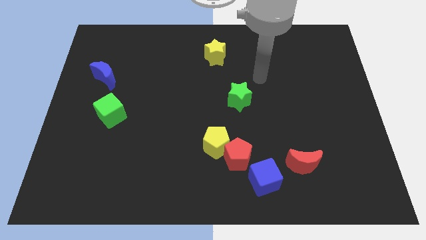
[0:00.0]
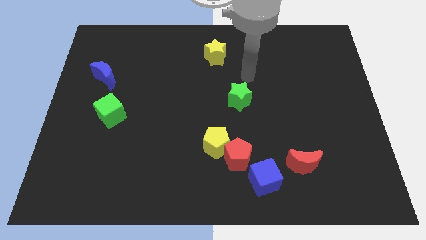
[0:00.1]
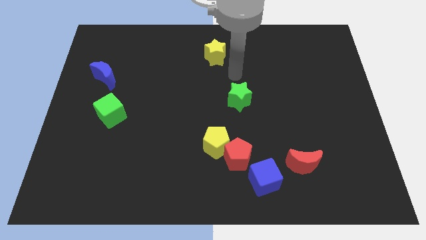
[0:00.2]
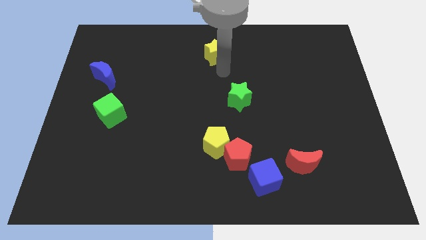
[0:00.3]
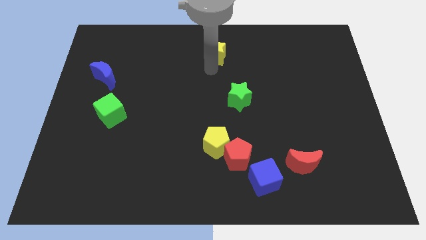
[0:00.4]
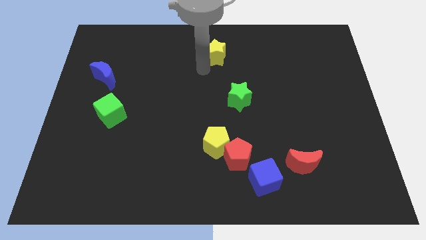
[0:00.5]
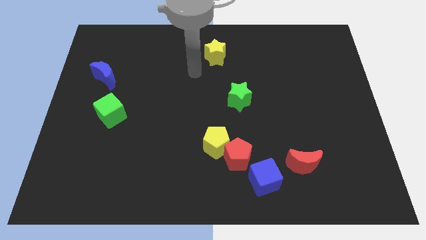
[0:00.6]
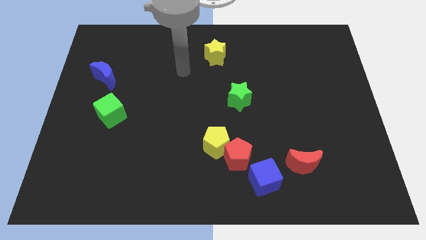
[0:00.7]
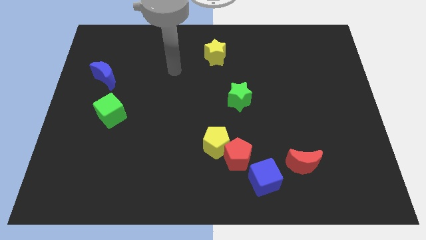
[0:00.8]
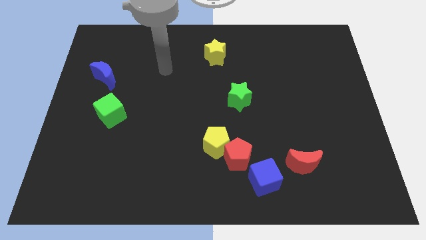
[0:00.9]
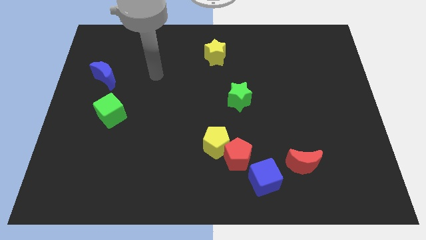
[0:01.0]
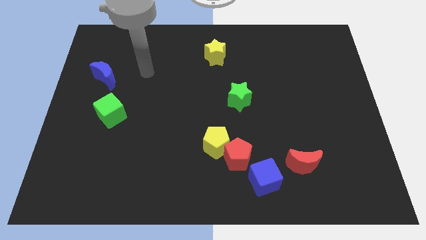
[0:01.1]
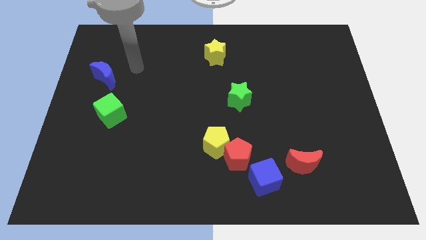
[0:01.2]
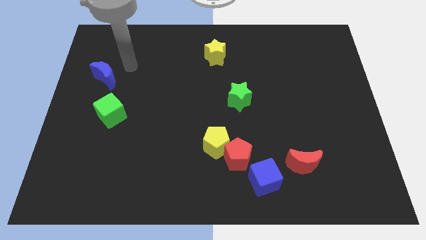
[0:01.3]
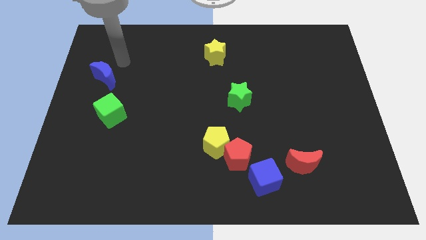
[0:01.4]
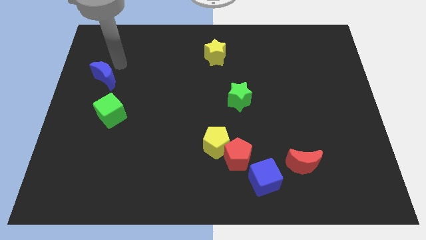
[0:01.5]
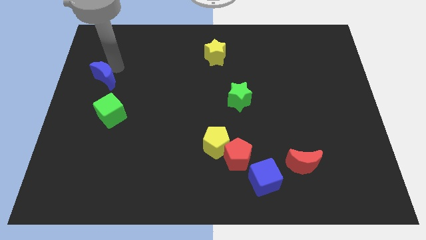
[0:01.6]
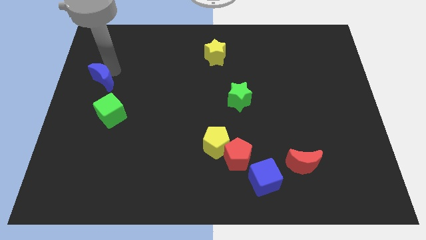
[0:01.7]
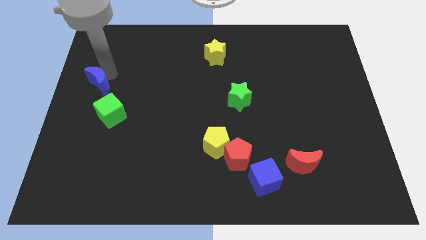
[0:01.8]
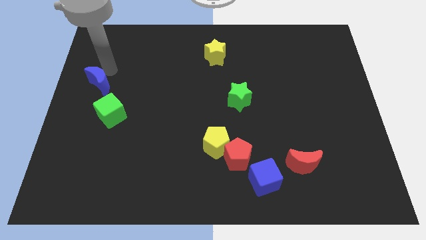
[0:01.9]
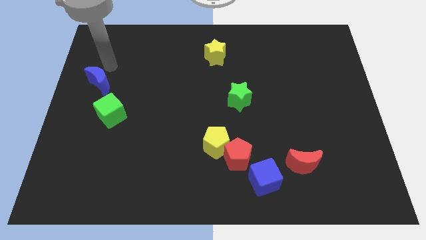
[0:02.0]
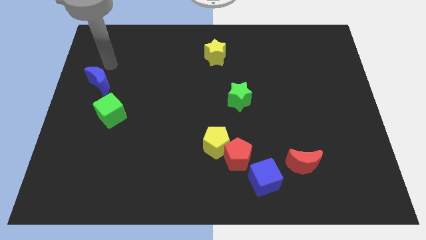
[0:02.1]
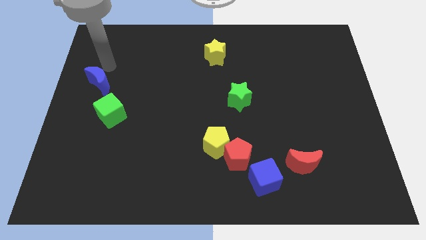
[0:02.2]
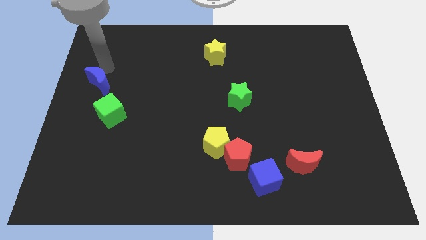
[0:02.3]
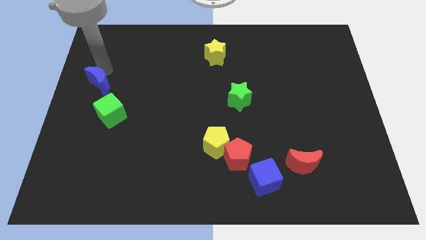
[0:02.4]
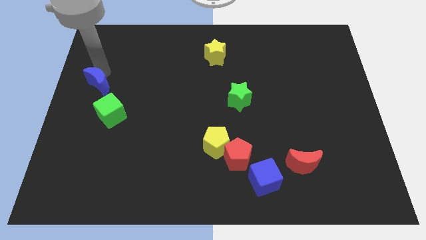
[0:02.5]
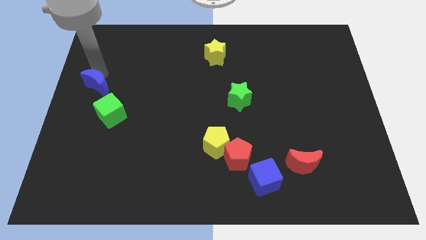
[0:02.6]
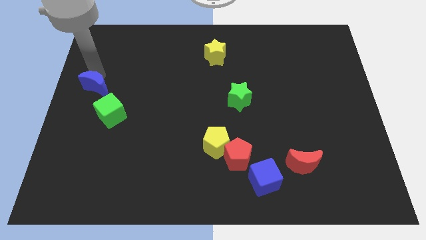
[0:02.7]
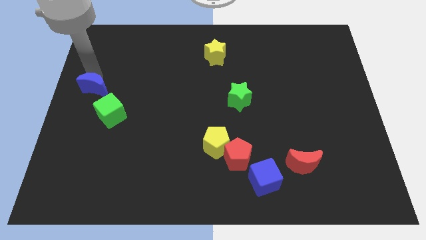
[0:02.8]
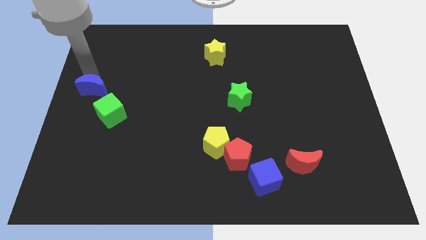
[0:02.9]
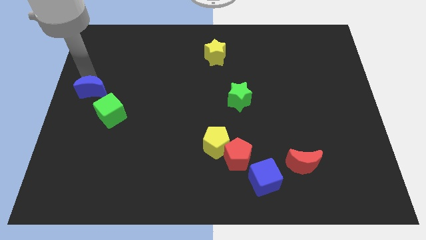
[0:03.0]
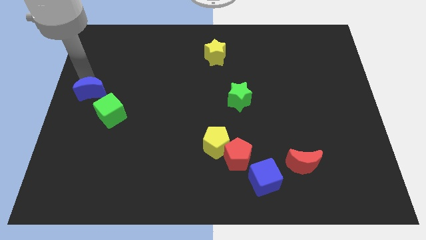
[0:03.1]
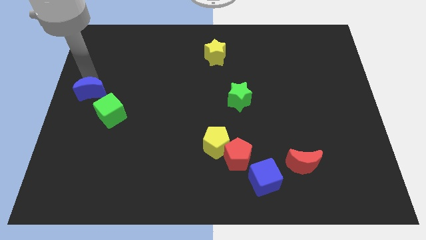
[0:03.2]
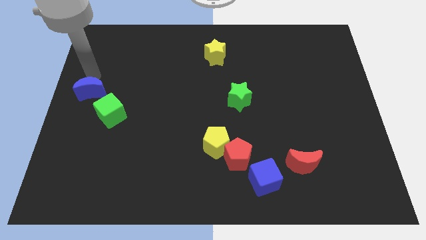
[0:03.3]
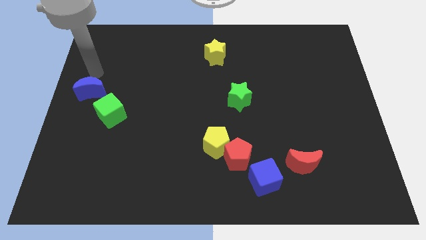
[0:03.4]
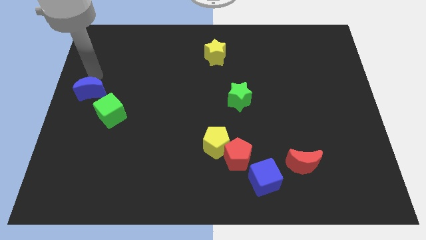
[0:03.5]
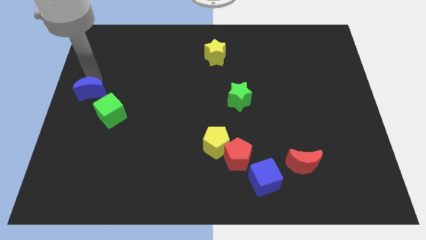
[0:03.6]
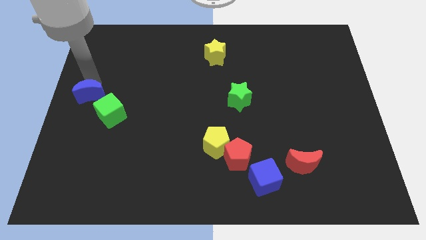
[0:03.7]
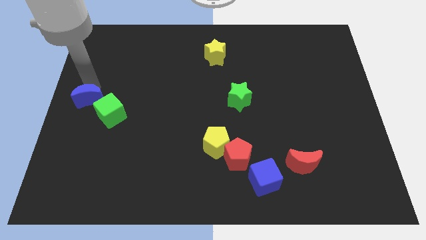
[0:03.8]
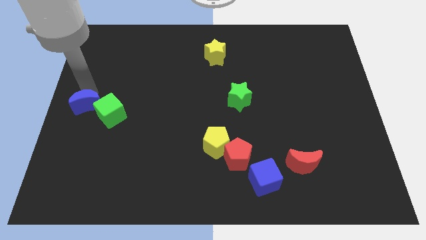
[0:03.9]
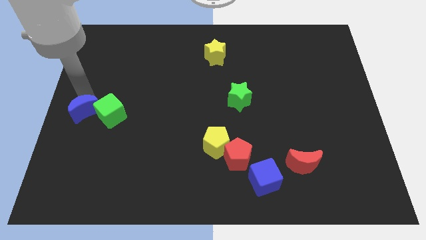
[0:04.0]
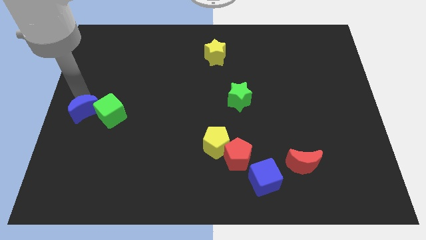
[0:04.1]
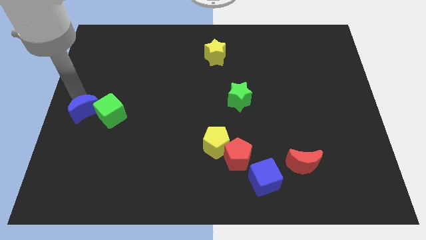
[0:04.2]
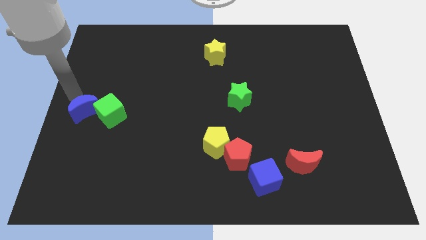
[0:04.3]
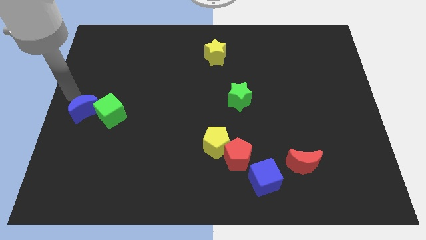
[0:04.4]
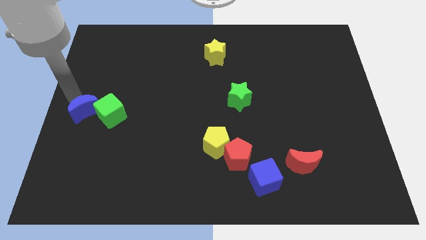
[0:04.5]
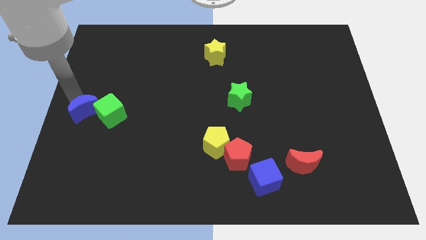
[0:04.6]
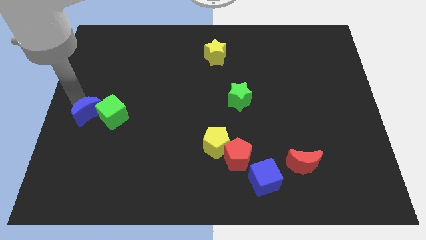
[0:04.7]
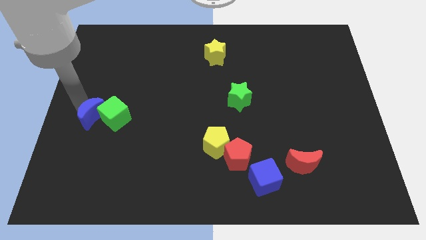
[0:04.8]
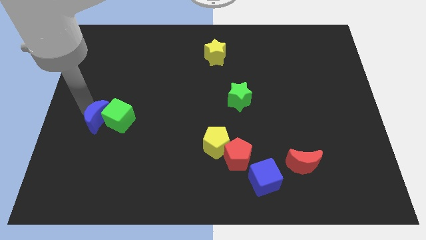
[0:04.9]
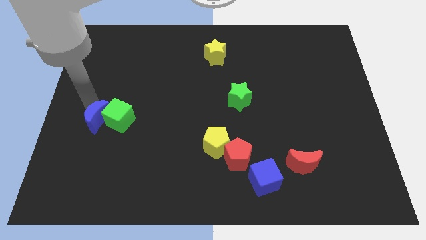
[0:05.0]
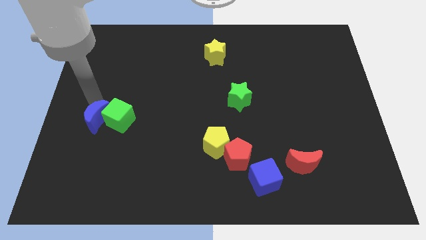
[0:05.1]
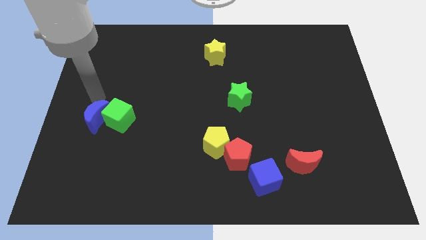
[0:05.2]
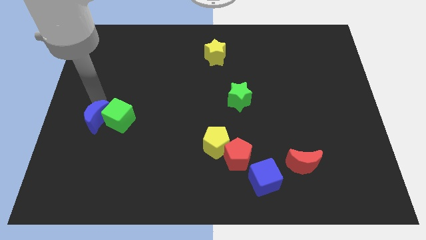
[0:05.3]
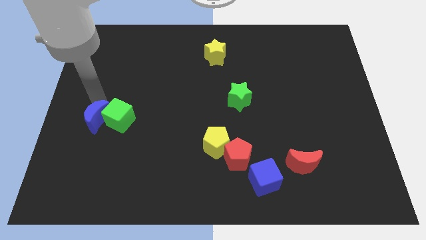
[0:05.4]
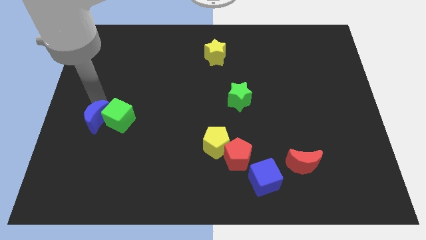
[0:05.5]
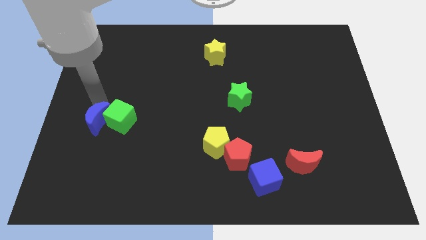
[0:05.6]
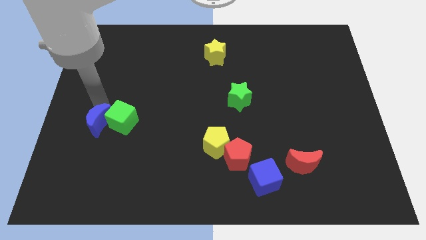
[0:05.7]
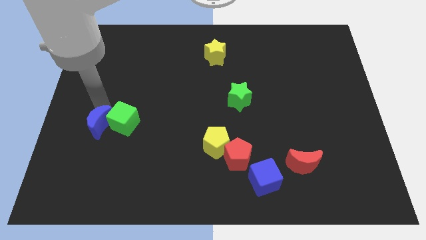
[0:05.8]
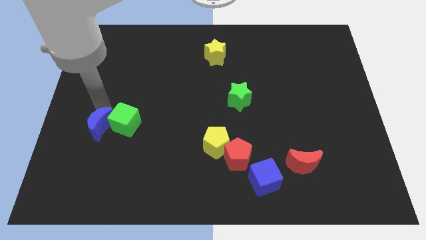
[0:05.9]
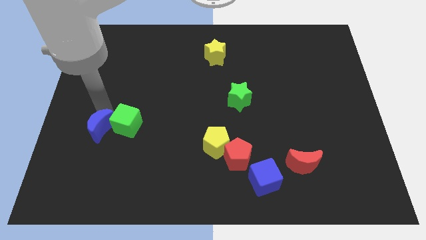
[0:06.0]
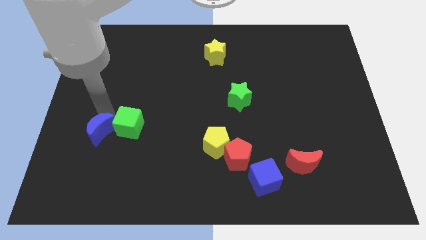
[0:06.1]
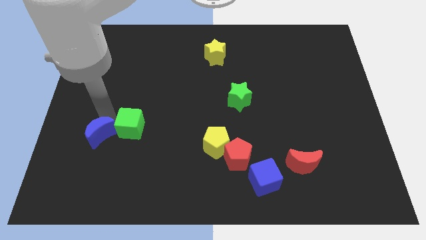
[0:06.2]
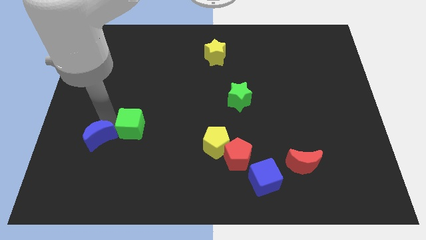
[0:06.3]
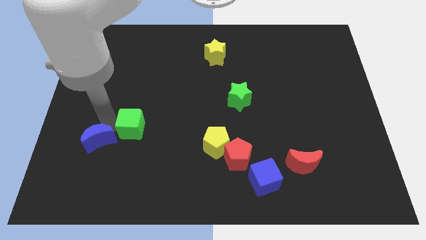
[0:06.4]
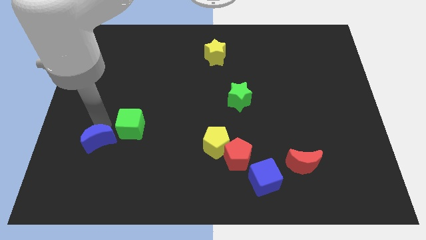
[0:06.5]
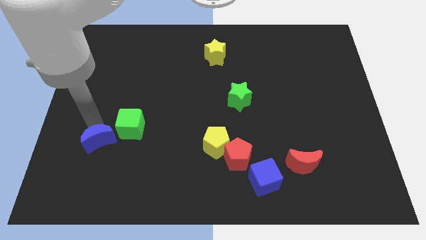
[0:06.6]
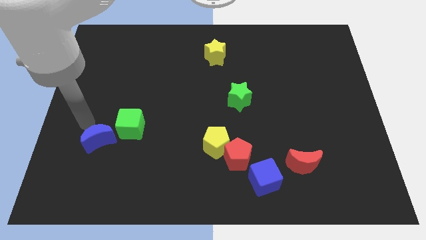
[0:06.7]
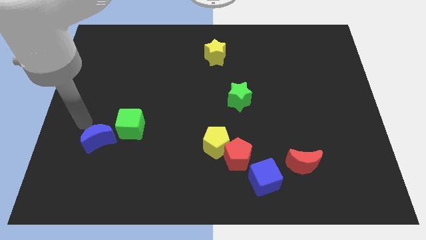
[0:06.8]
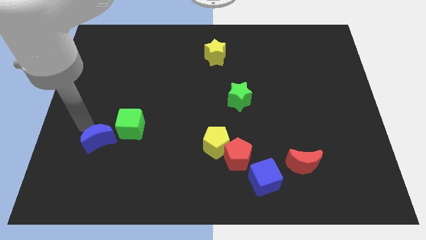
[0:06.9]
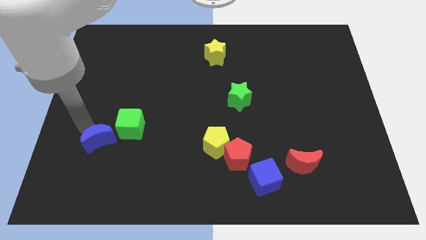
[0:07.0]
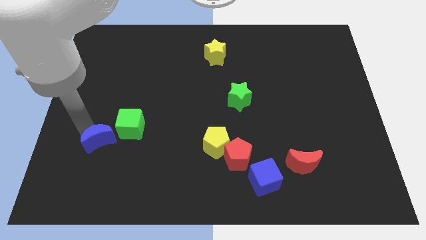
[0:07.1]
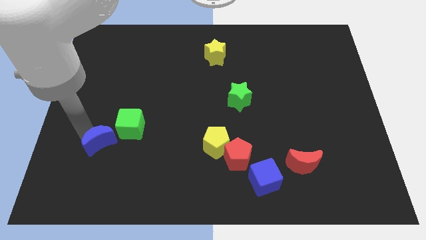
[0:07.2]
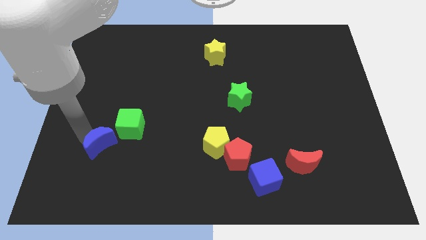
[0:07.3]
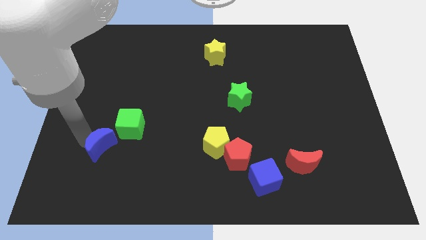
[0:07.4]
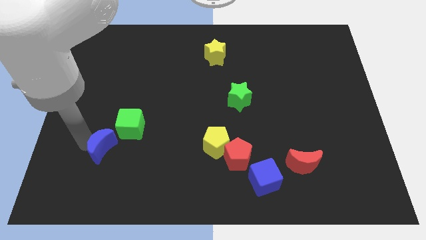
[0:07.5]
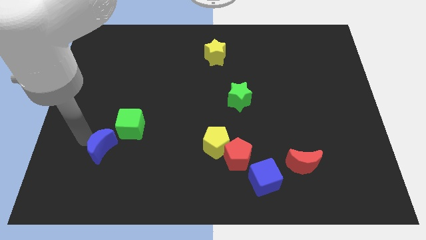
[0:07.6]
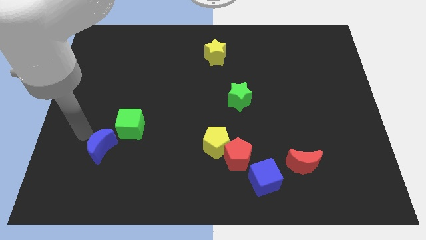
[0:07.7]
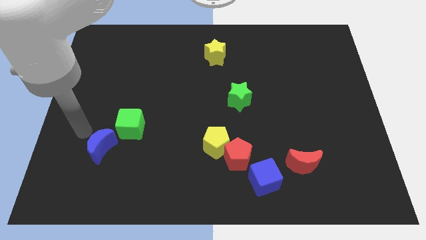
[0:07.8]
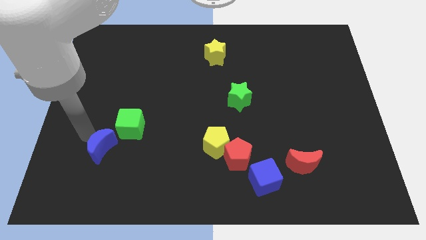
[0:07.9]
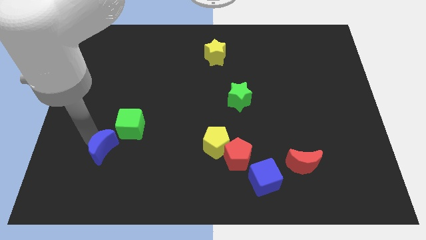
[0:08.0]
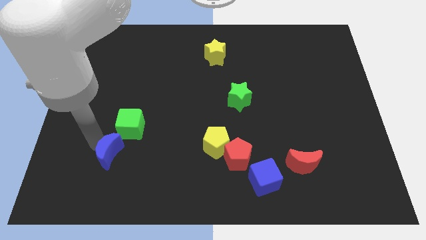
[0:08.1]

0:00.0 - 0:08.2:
push the blue moon to the bottom side of the green cube
